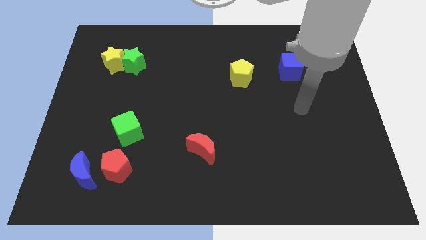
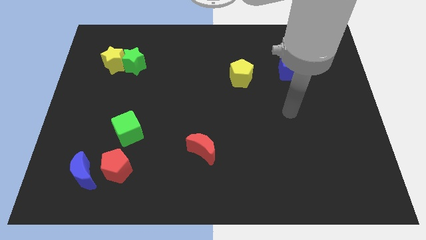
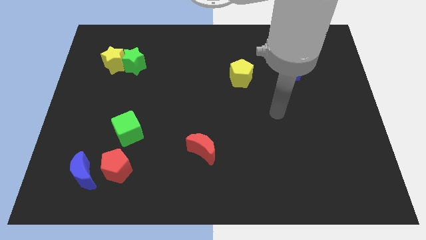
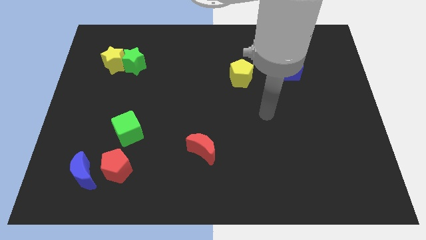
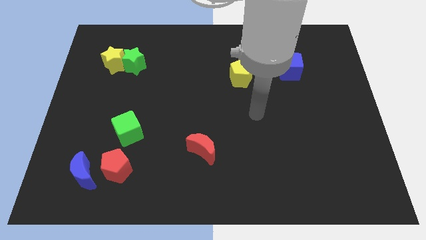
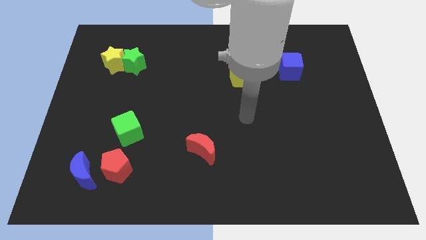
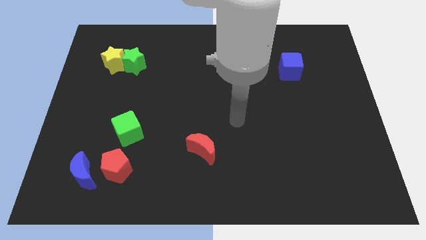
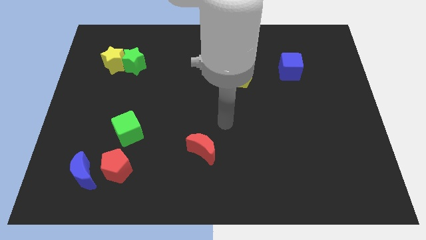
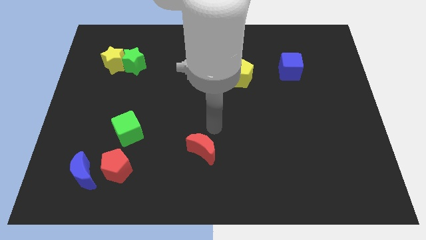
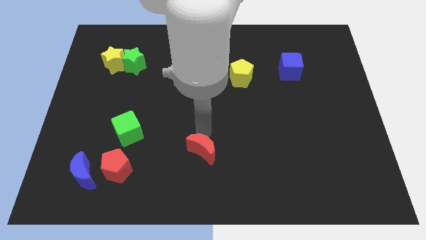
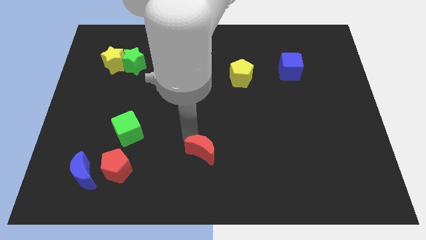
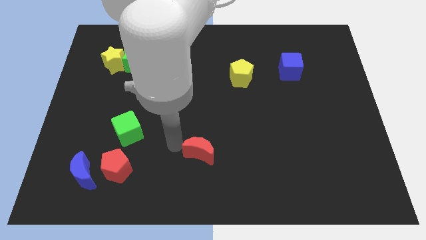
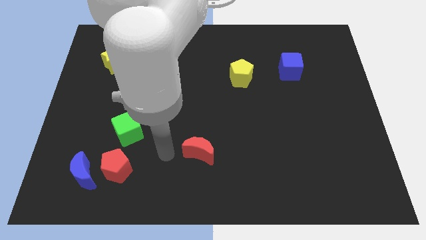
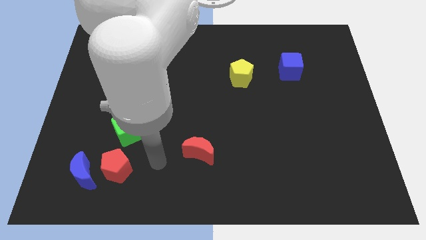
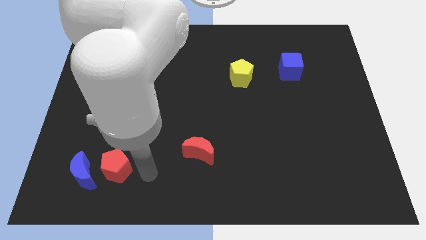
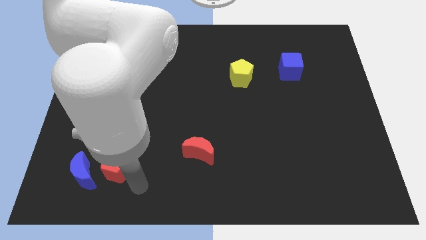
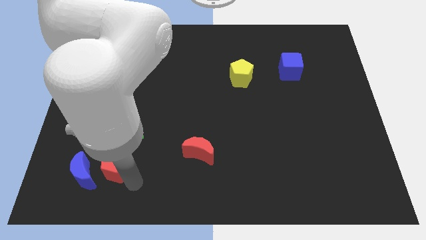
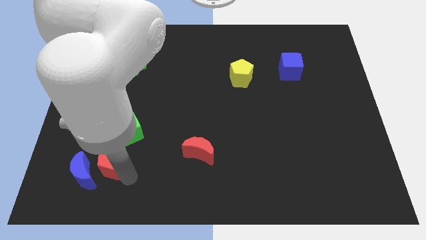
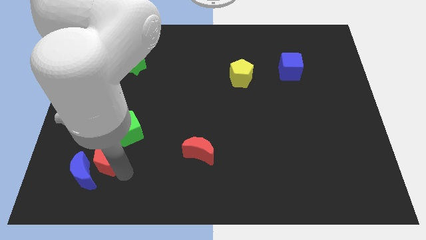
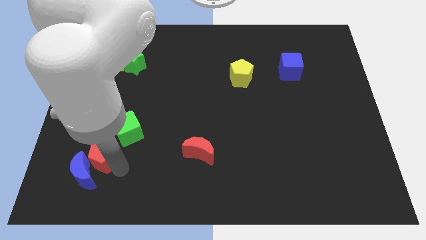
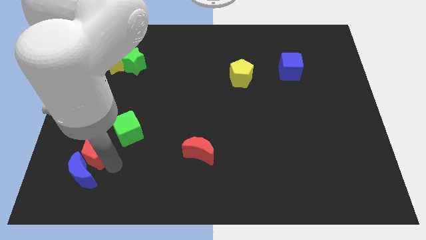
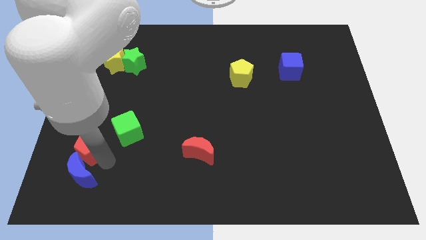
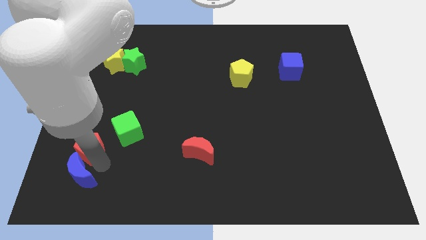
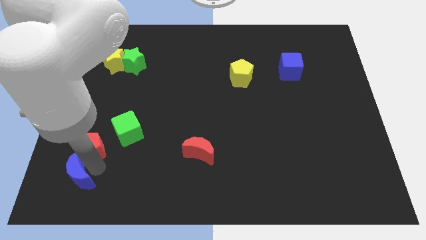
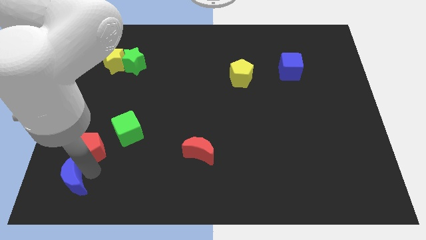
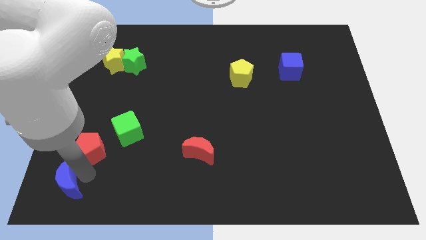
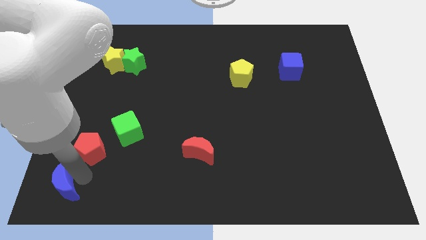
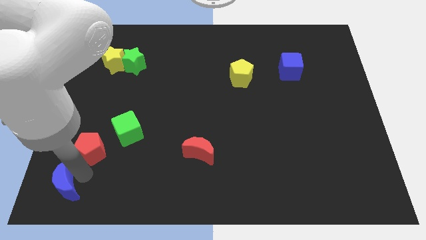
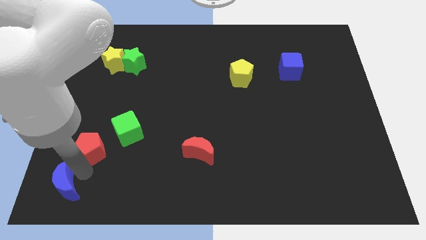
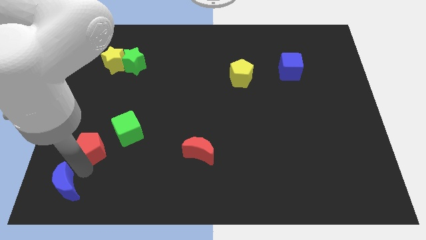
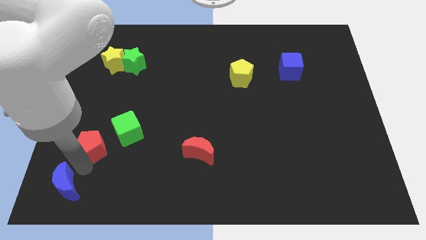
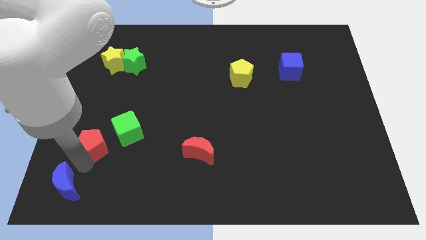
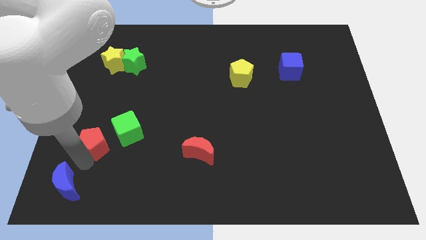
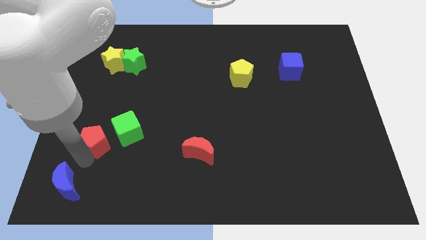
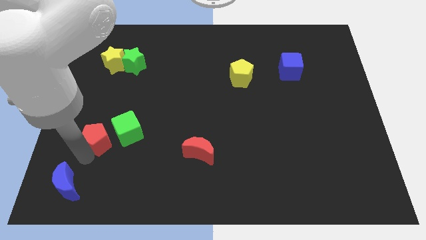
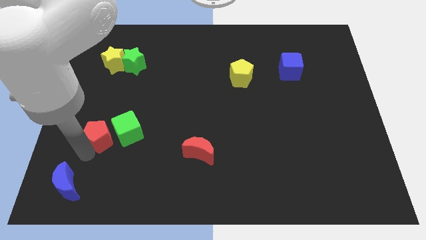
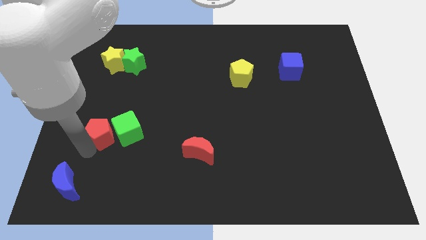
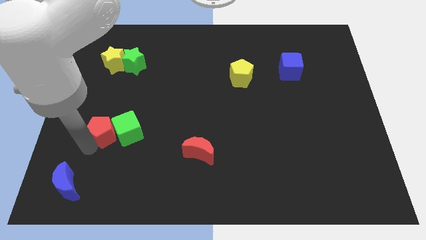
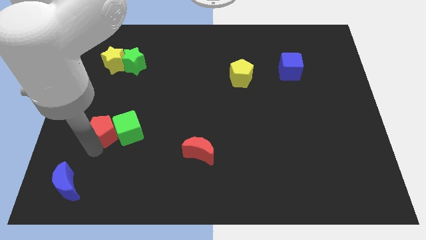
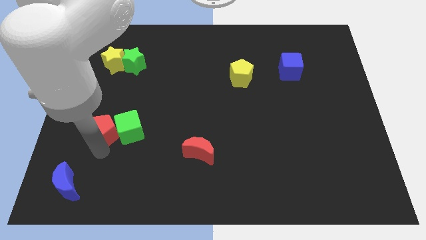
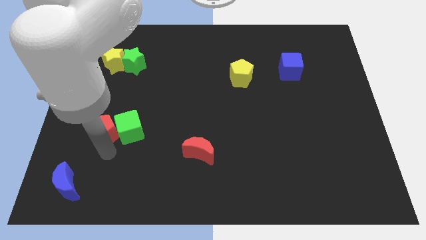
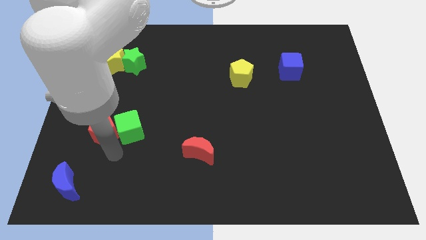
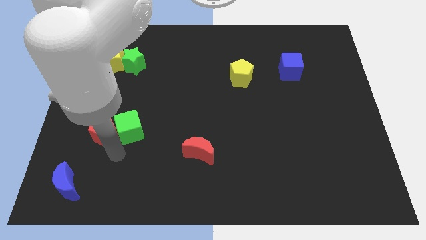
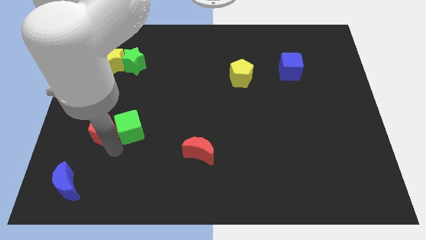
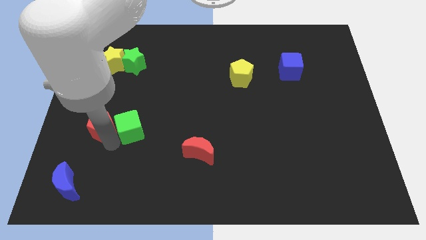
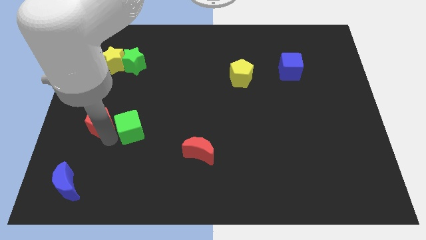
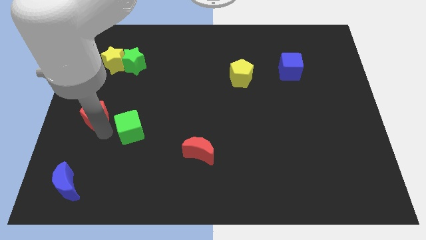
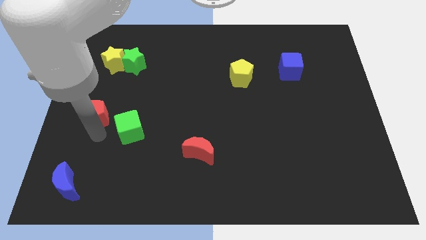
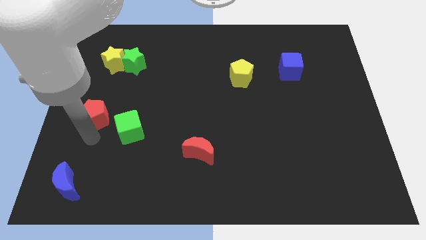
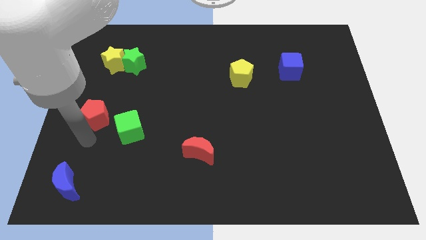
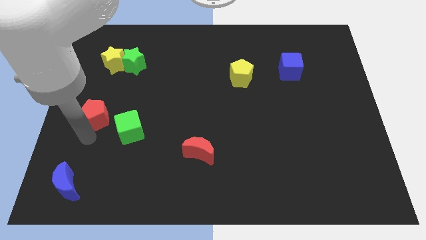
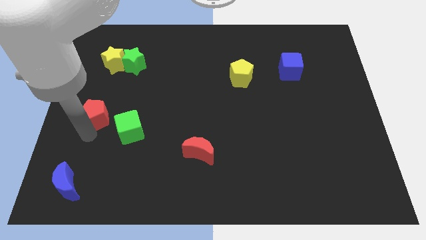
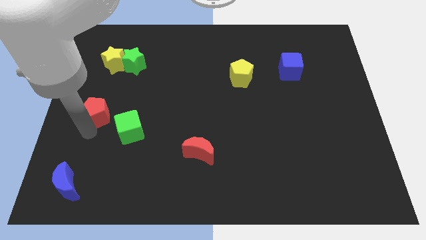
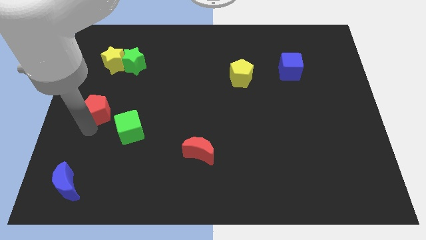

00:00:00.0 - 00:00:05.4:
push the red pentagon to the bottom side of the yellow star

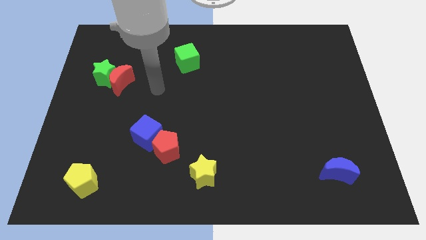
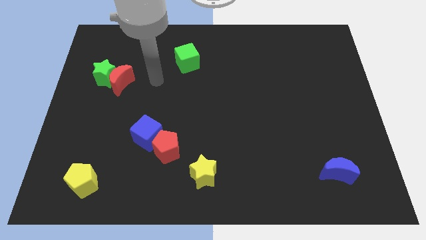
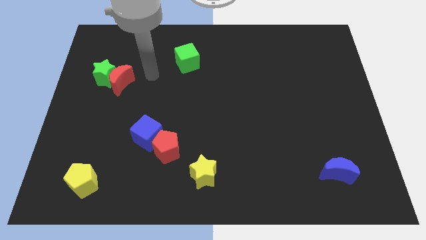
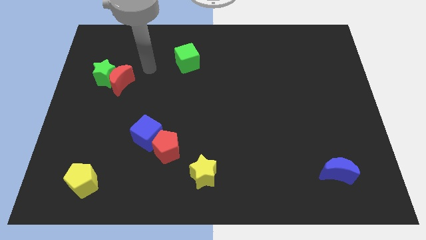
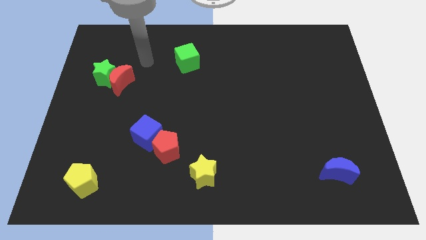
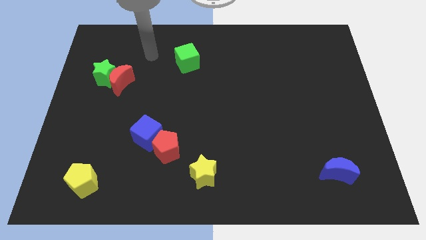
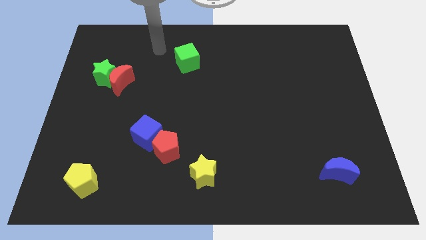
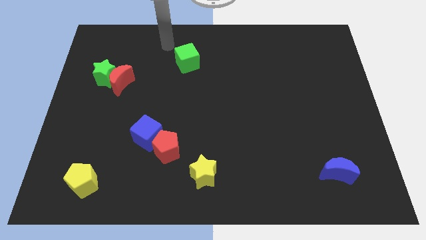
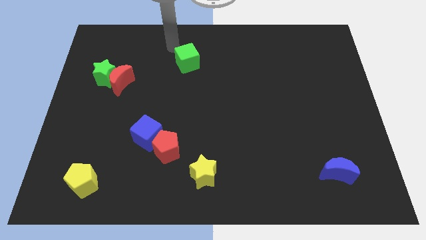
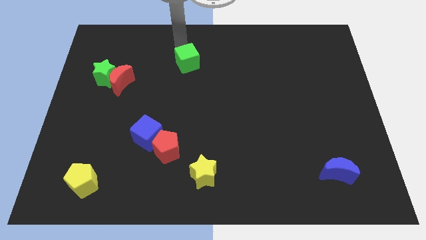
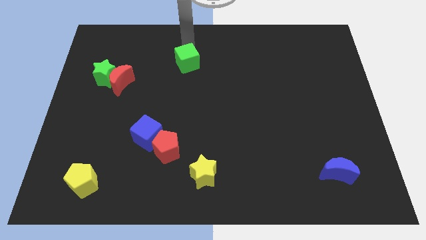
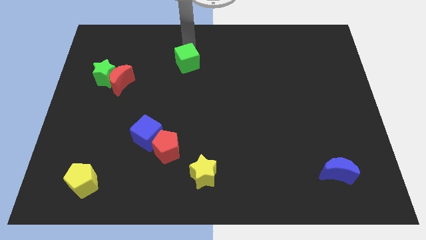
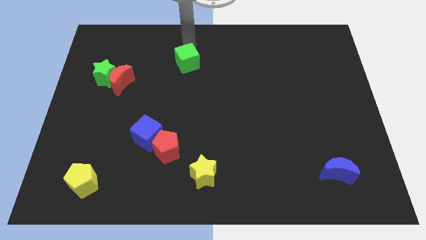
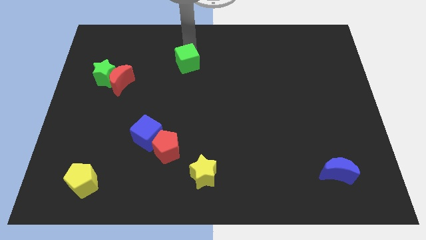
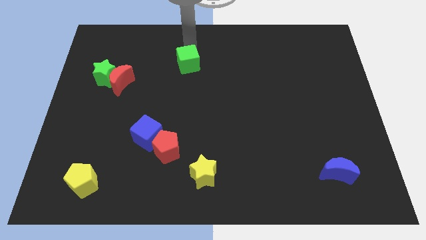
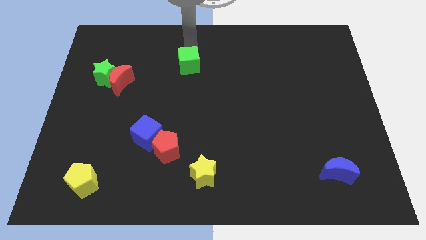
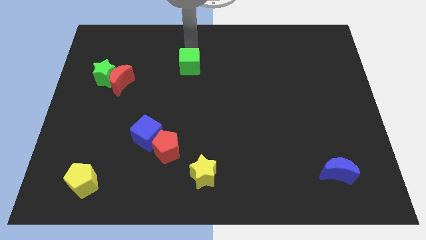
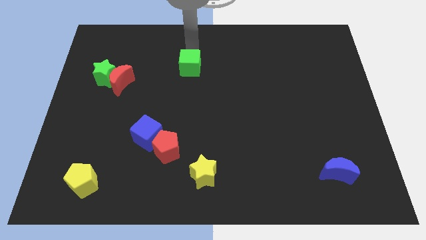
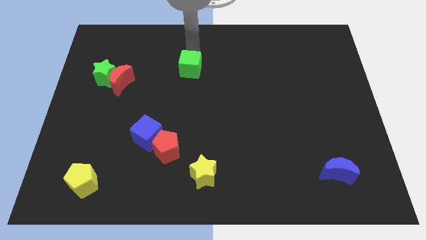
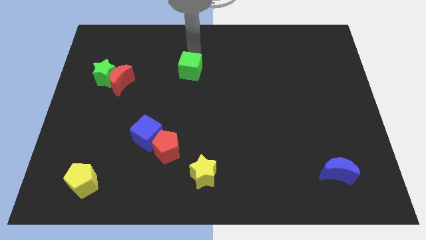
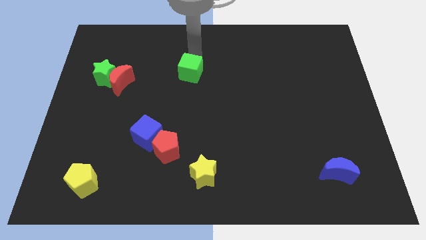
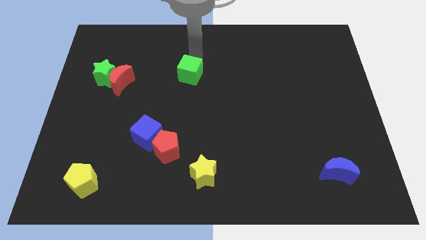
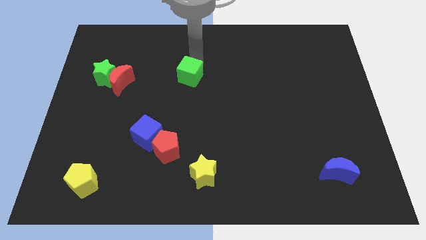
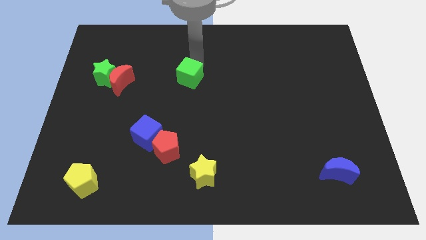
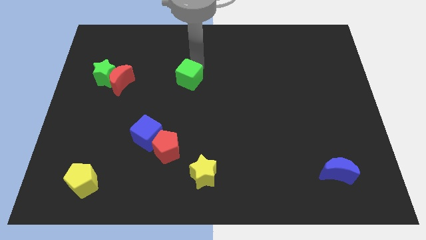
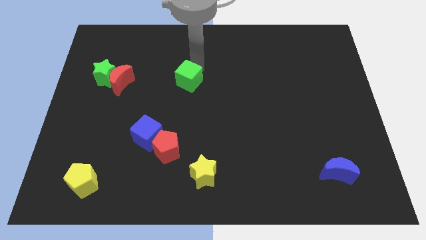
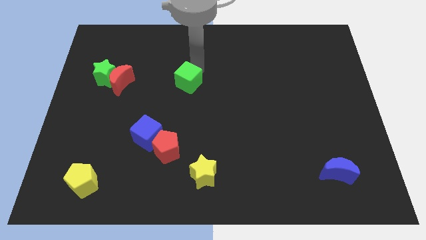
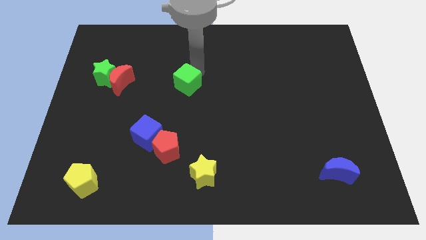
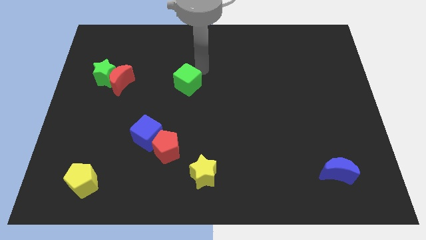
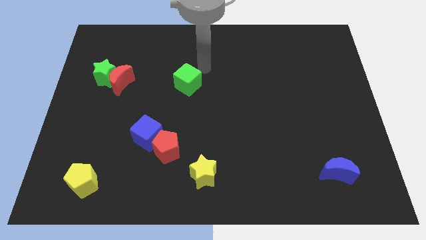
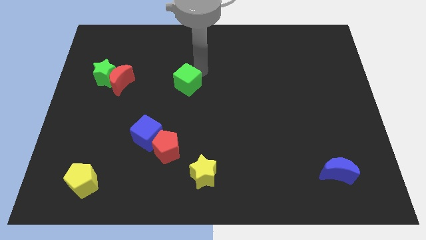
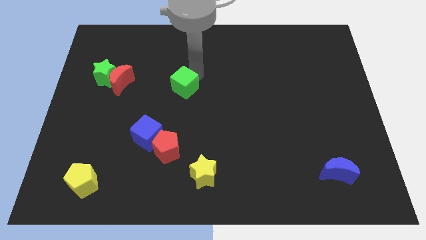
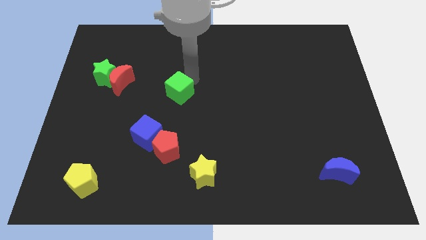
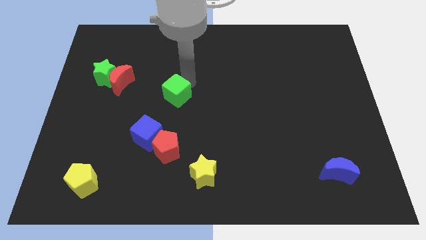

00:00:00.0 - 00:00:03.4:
move the green cube to the top side of the red pentagon
